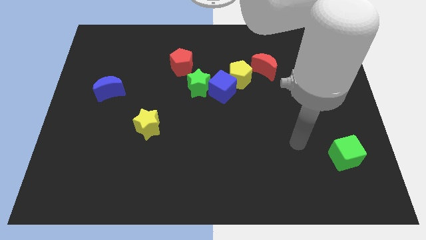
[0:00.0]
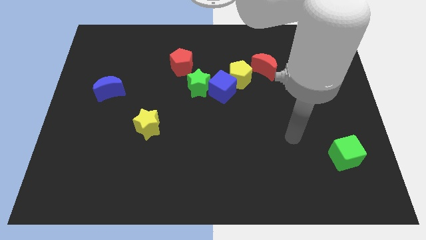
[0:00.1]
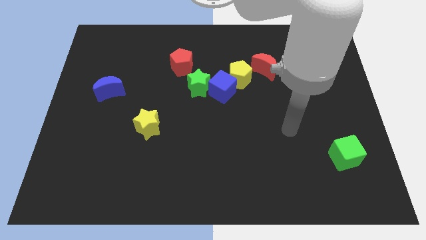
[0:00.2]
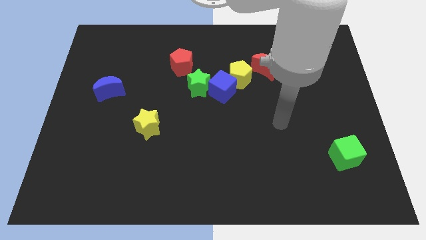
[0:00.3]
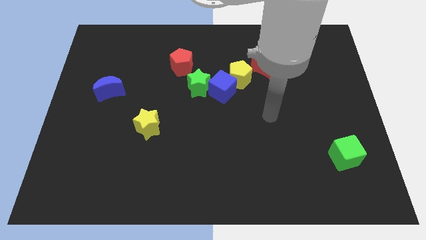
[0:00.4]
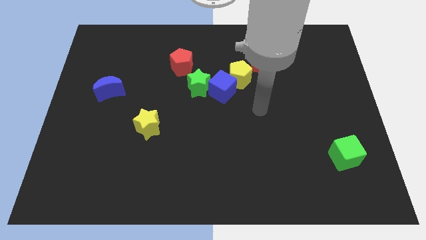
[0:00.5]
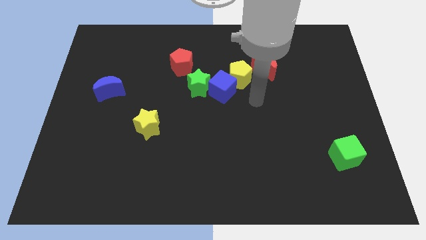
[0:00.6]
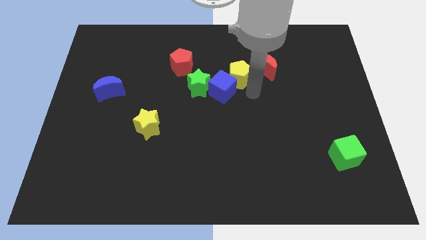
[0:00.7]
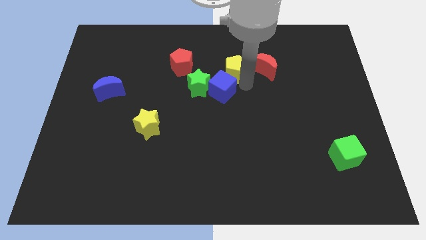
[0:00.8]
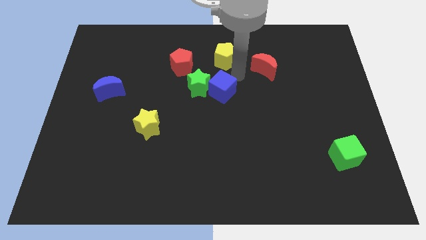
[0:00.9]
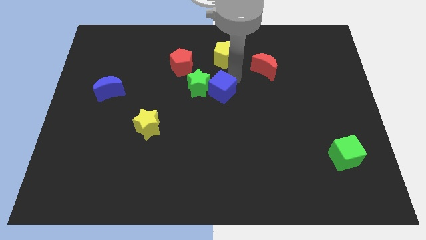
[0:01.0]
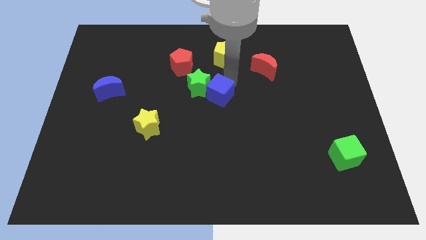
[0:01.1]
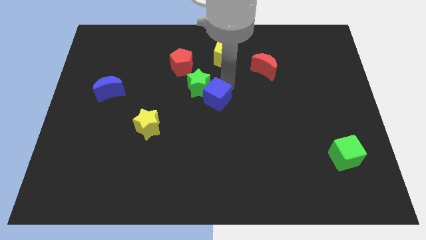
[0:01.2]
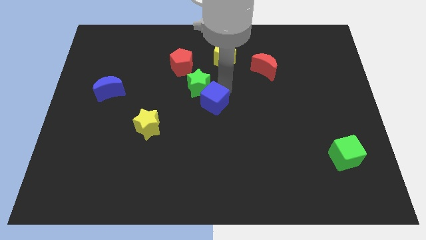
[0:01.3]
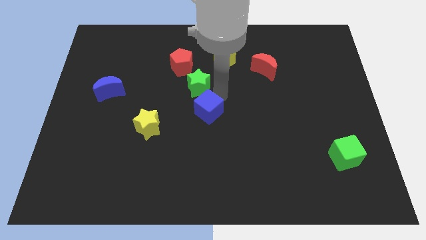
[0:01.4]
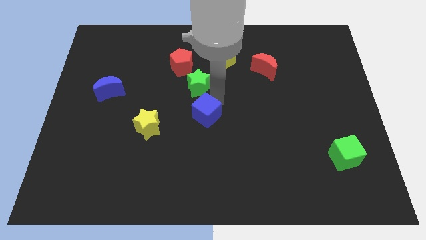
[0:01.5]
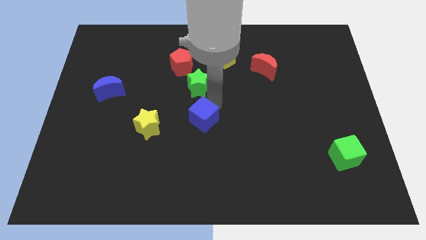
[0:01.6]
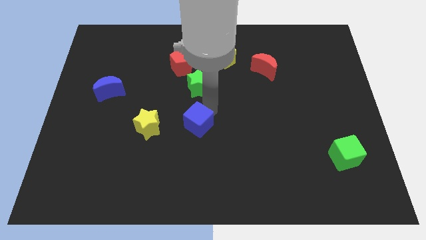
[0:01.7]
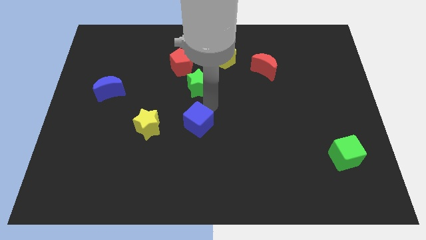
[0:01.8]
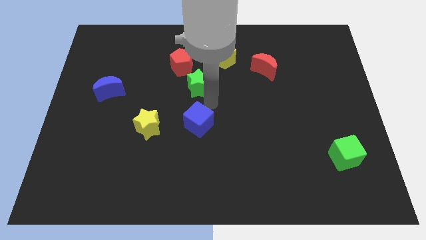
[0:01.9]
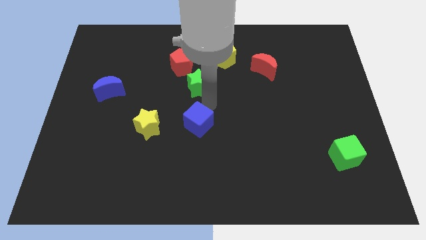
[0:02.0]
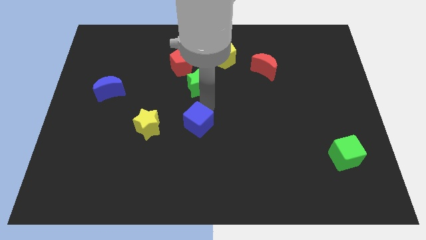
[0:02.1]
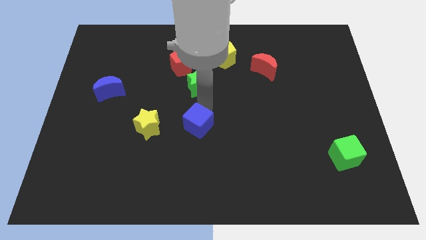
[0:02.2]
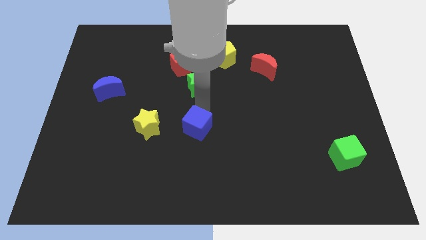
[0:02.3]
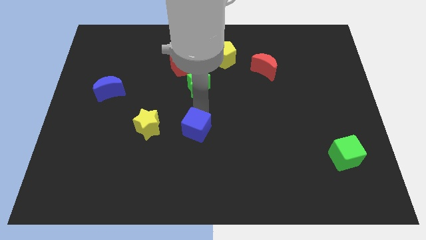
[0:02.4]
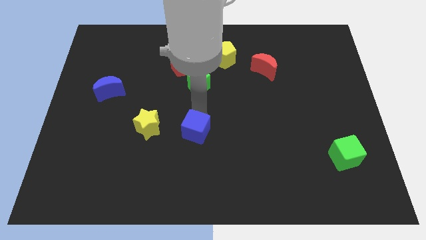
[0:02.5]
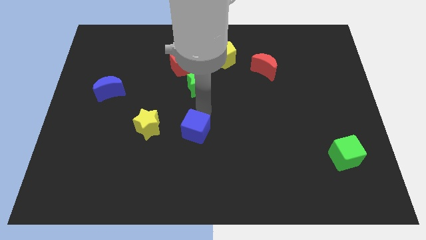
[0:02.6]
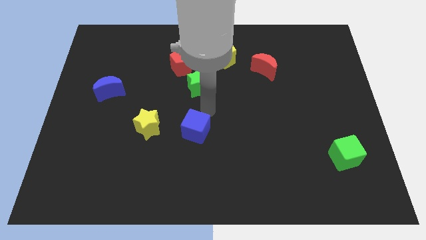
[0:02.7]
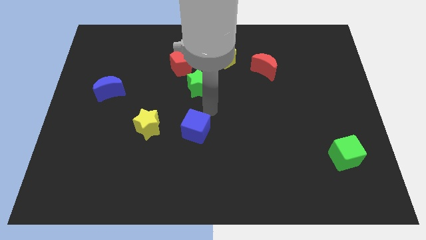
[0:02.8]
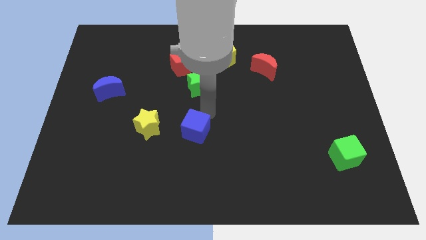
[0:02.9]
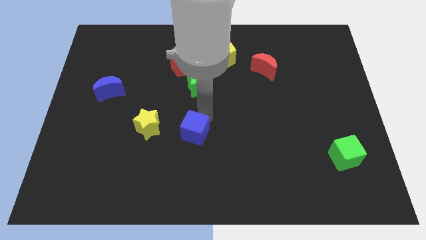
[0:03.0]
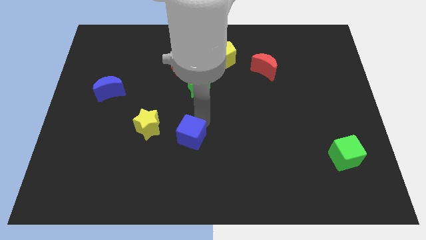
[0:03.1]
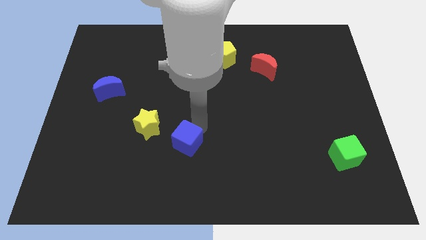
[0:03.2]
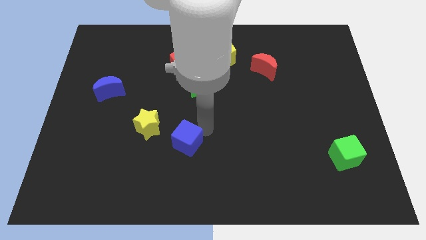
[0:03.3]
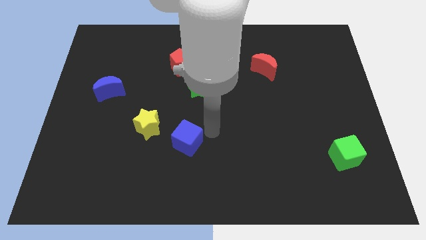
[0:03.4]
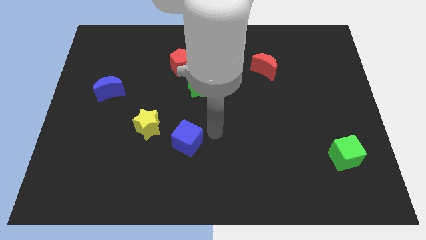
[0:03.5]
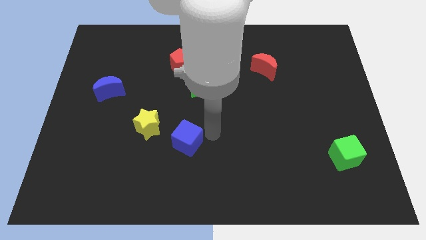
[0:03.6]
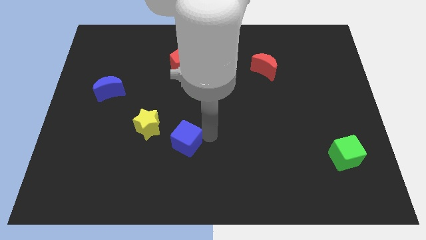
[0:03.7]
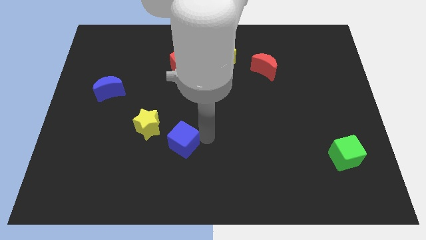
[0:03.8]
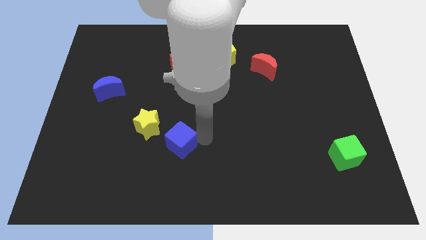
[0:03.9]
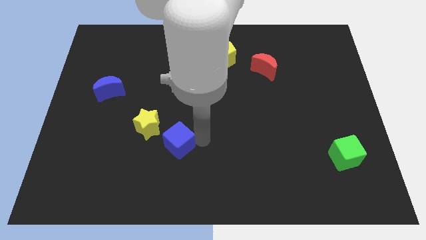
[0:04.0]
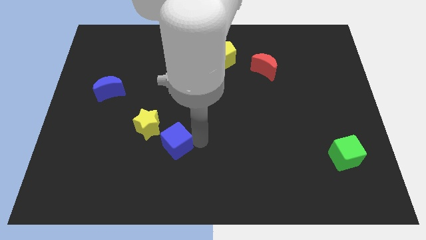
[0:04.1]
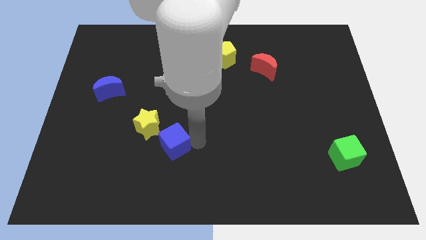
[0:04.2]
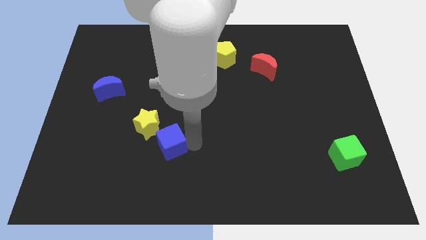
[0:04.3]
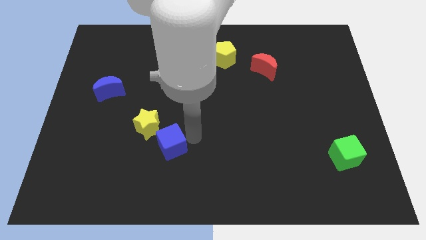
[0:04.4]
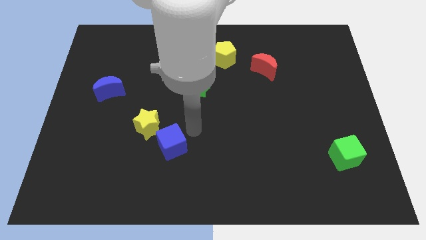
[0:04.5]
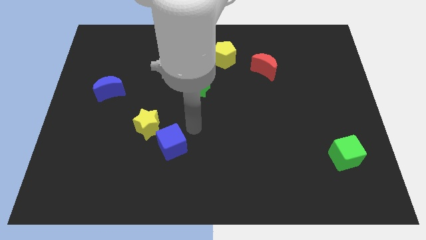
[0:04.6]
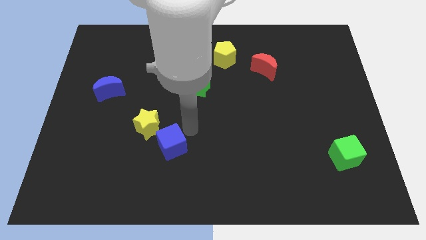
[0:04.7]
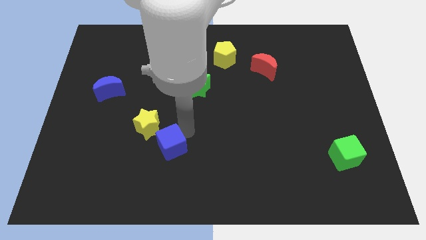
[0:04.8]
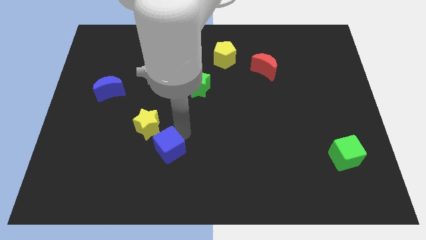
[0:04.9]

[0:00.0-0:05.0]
move the blue cube to the bottom of the yellow star

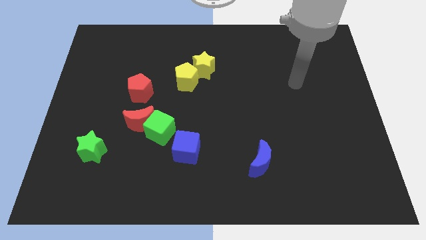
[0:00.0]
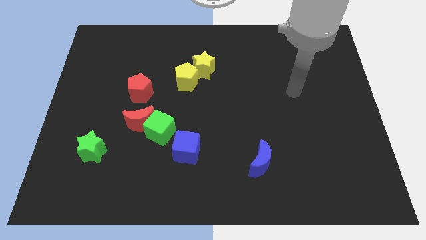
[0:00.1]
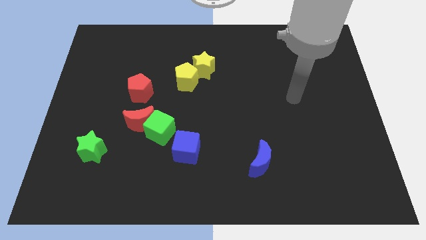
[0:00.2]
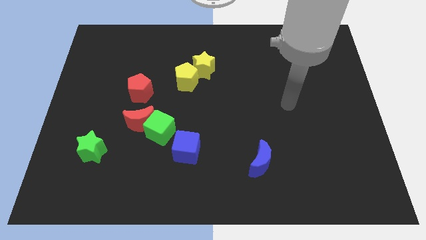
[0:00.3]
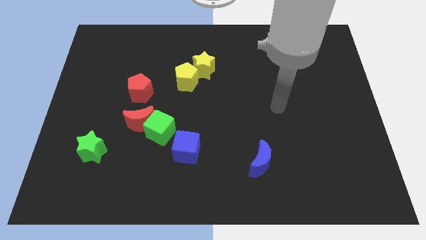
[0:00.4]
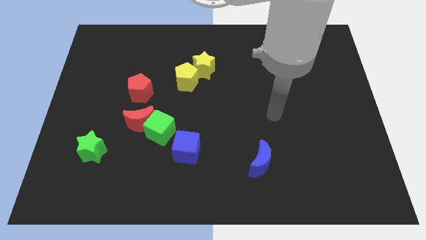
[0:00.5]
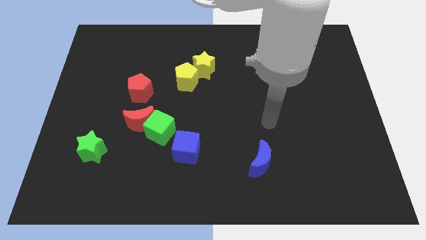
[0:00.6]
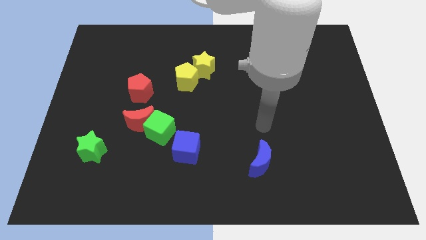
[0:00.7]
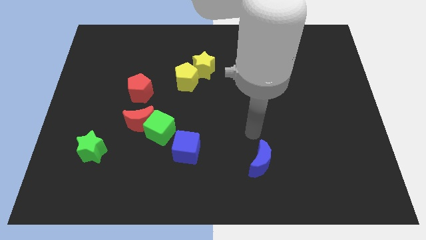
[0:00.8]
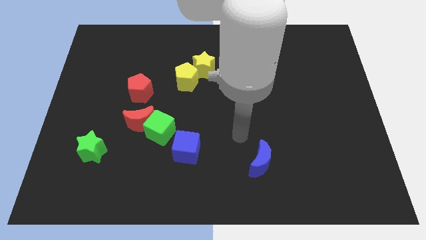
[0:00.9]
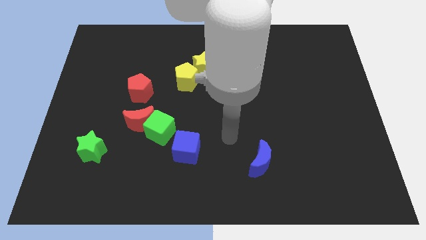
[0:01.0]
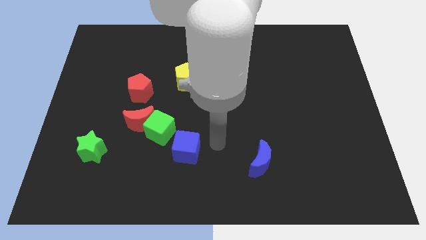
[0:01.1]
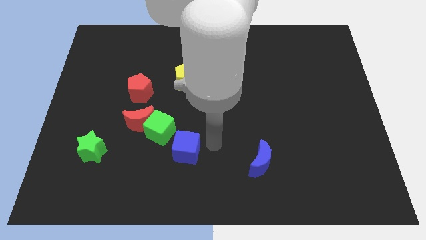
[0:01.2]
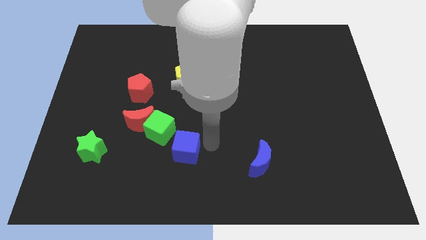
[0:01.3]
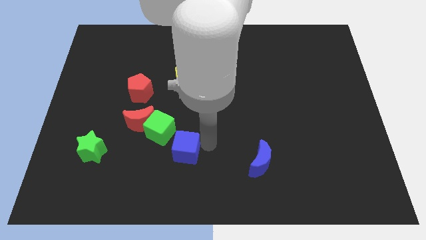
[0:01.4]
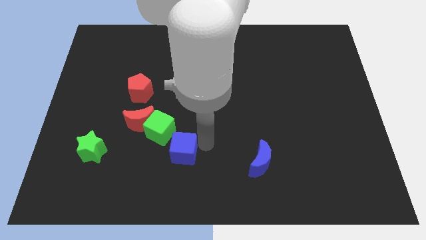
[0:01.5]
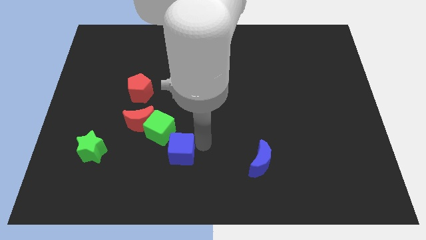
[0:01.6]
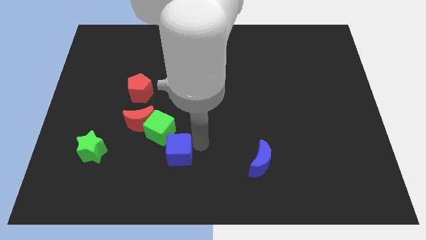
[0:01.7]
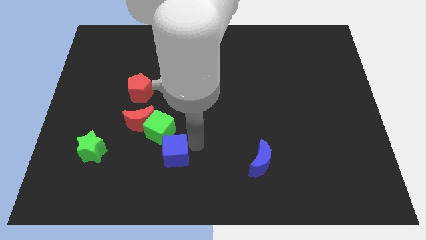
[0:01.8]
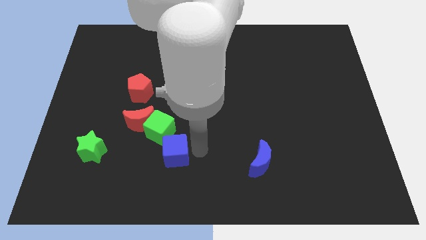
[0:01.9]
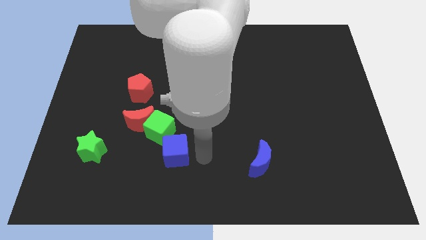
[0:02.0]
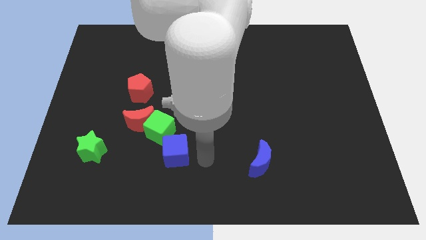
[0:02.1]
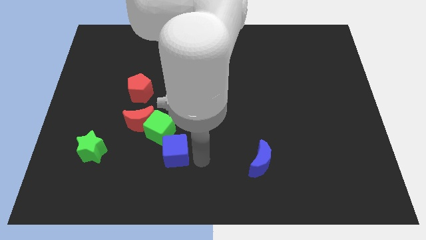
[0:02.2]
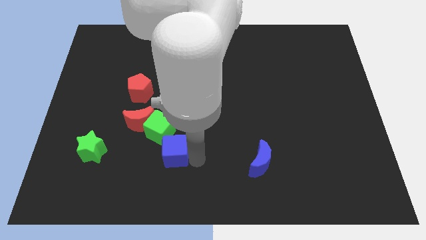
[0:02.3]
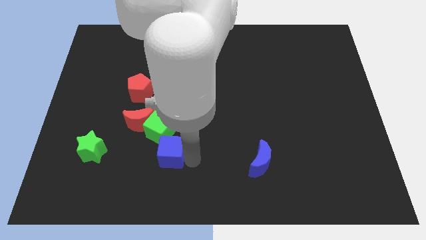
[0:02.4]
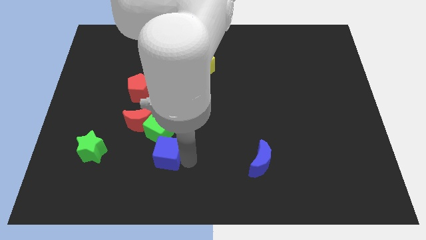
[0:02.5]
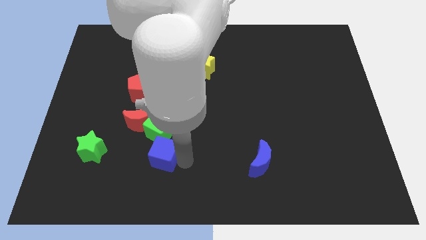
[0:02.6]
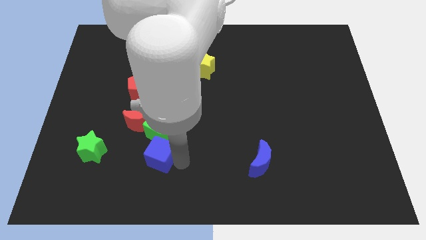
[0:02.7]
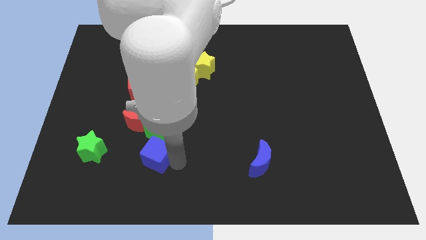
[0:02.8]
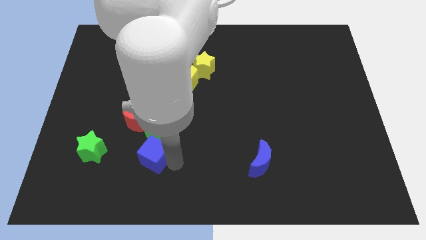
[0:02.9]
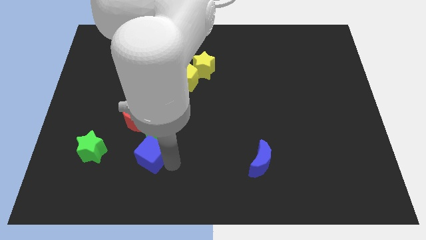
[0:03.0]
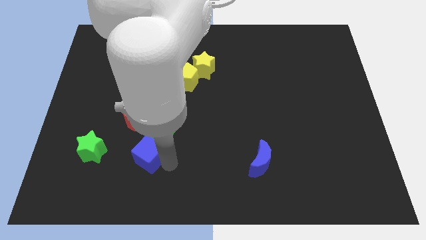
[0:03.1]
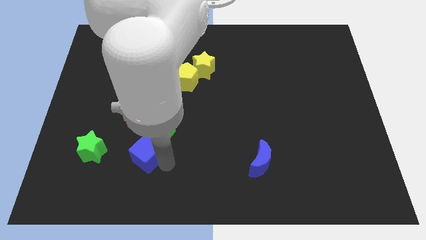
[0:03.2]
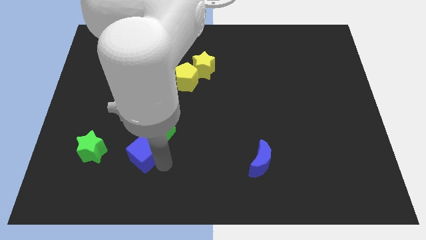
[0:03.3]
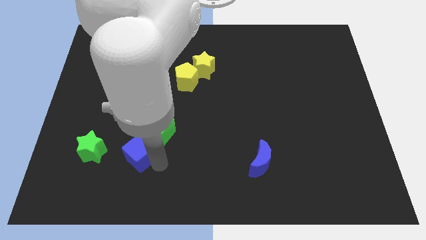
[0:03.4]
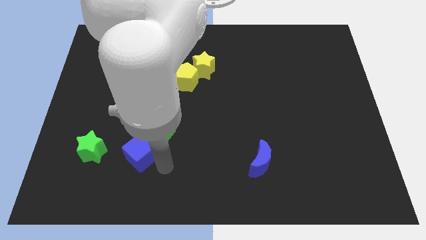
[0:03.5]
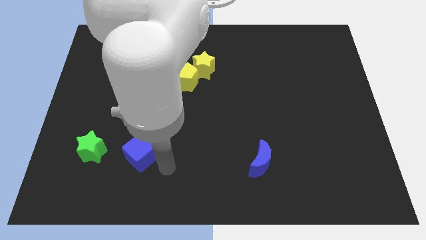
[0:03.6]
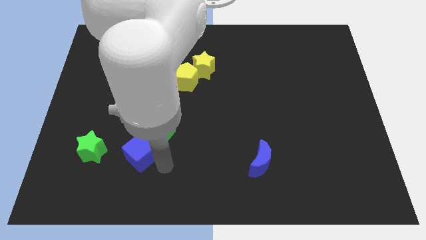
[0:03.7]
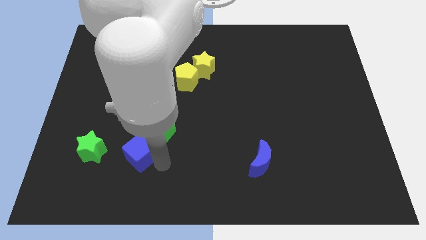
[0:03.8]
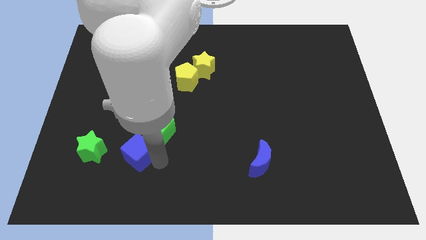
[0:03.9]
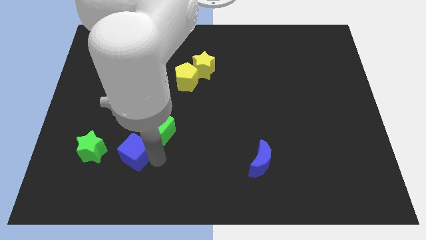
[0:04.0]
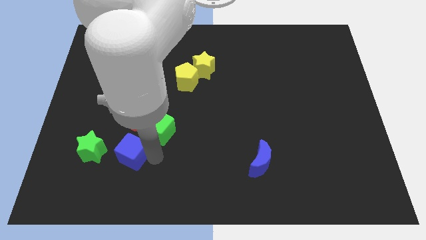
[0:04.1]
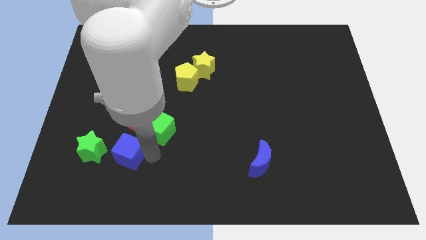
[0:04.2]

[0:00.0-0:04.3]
put the blue cube to the bottom left side of the red moon
